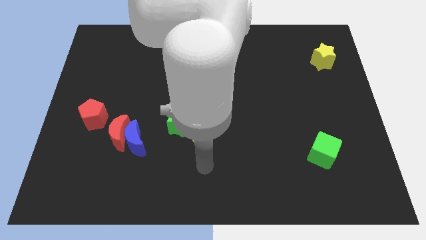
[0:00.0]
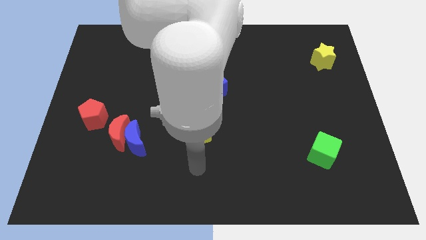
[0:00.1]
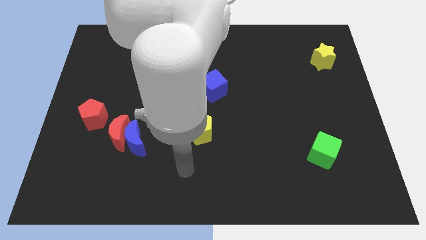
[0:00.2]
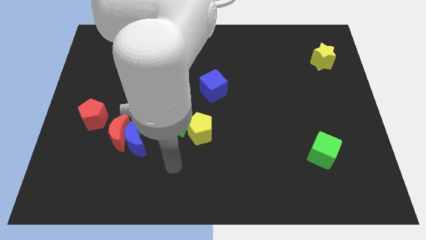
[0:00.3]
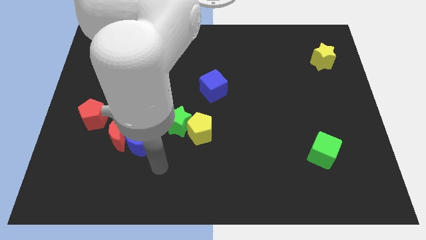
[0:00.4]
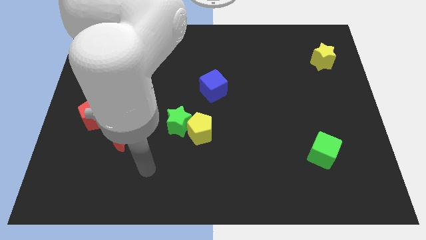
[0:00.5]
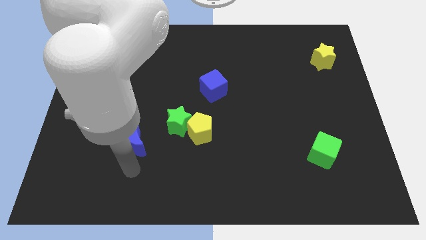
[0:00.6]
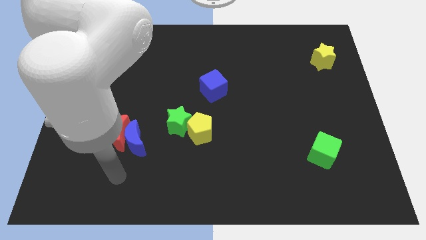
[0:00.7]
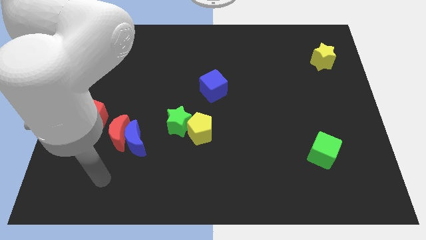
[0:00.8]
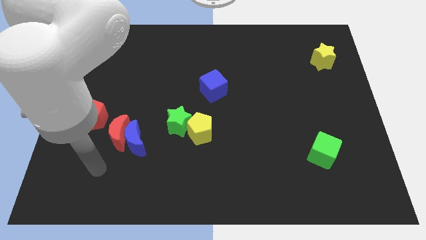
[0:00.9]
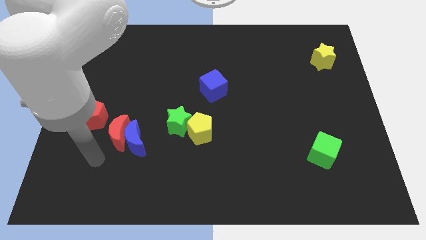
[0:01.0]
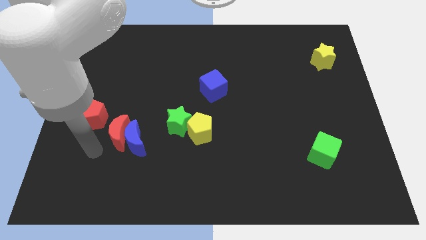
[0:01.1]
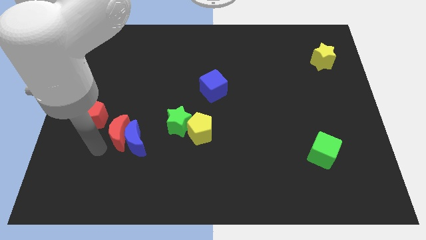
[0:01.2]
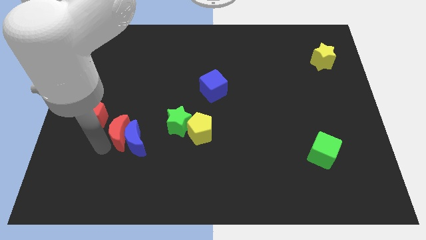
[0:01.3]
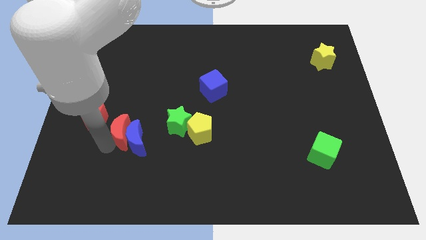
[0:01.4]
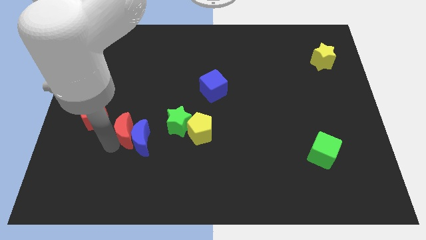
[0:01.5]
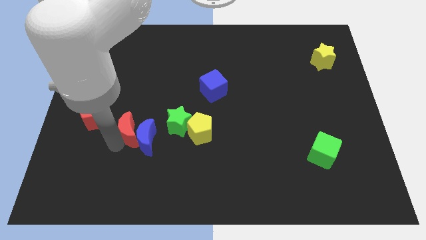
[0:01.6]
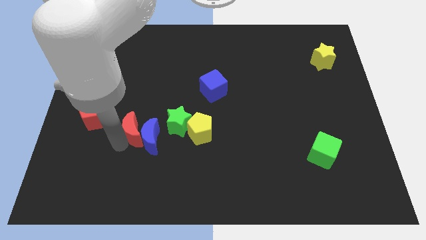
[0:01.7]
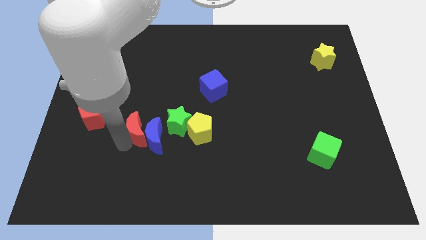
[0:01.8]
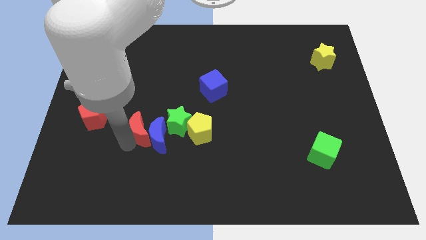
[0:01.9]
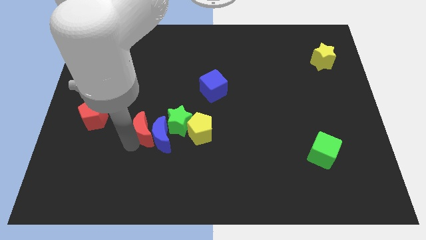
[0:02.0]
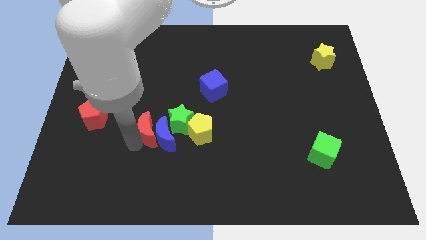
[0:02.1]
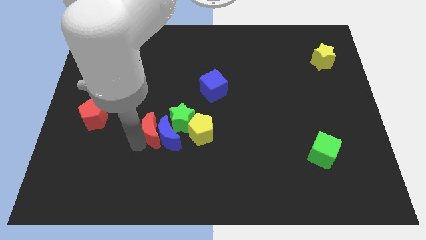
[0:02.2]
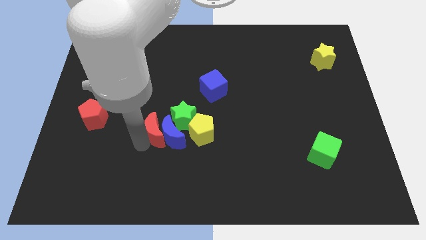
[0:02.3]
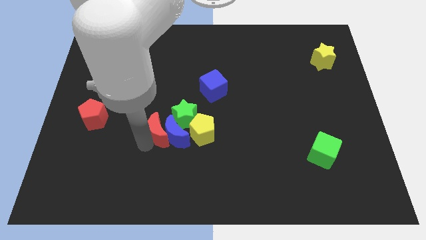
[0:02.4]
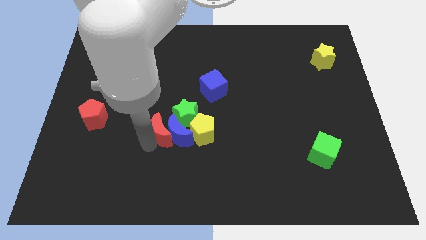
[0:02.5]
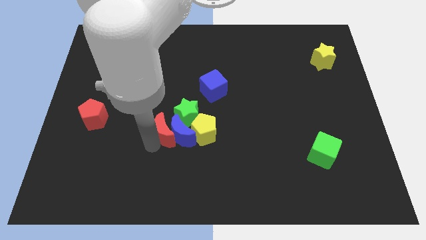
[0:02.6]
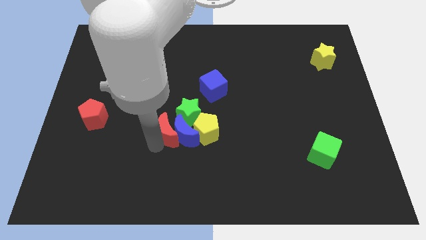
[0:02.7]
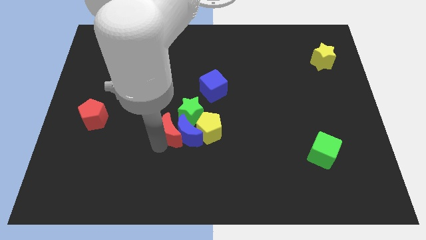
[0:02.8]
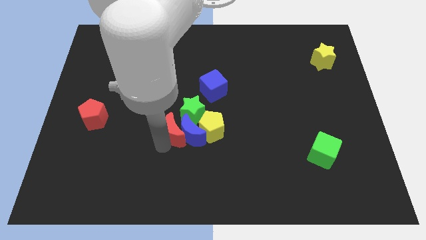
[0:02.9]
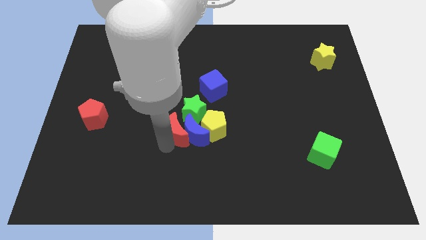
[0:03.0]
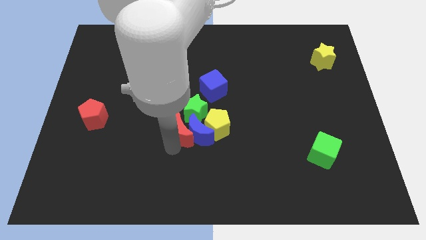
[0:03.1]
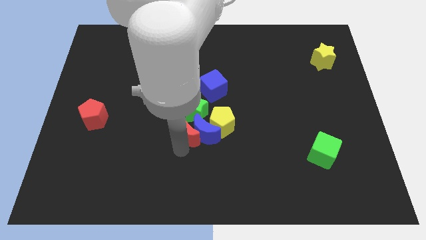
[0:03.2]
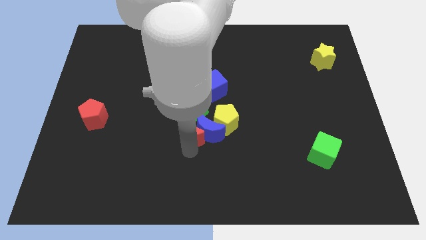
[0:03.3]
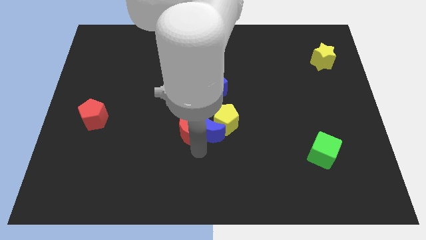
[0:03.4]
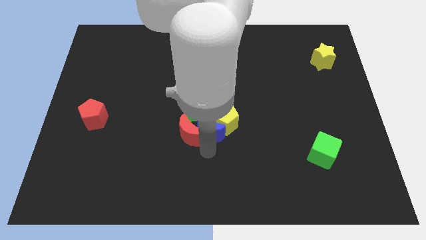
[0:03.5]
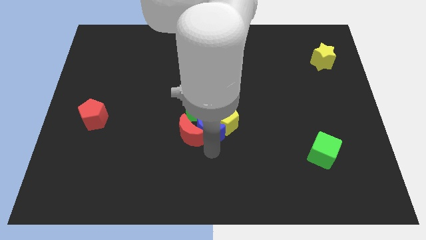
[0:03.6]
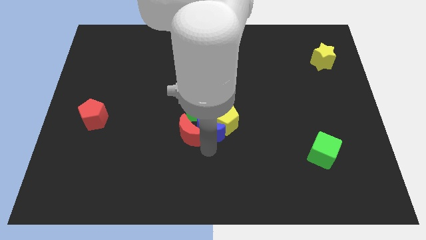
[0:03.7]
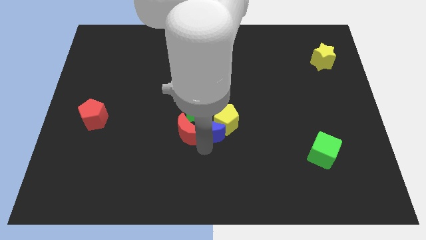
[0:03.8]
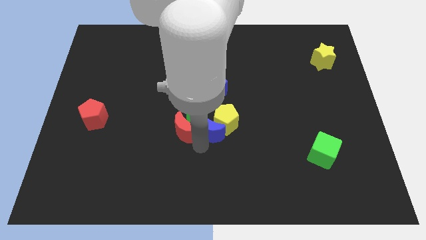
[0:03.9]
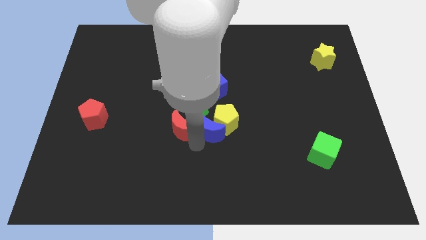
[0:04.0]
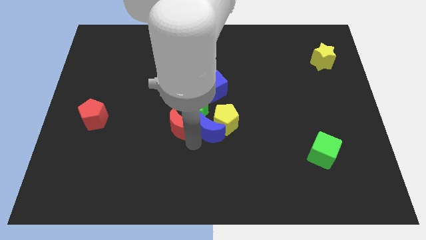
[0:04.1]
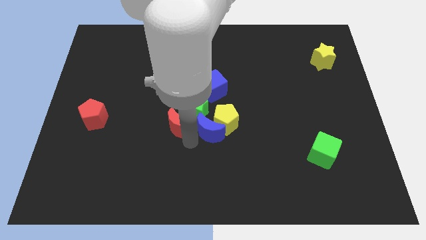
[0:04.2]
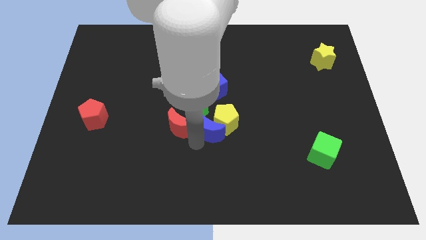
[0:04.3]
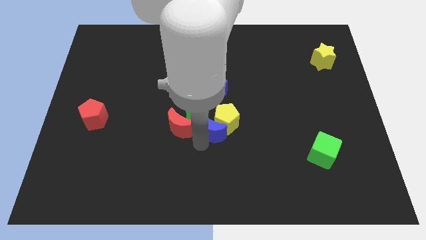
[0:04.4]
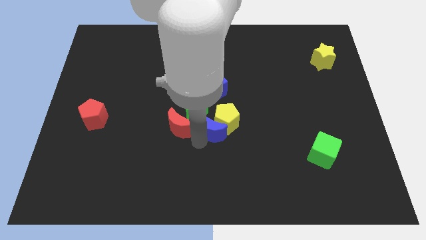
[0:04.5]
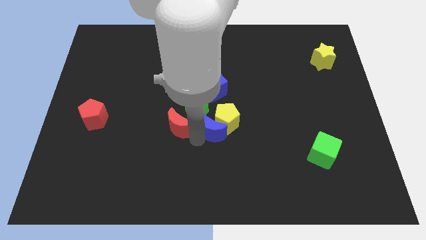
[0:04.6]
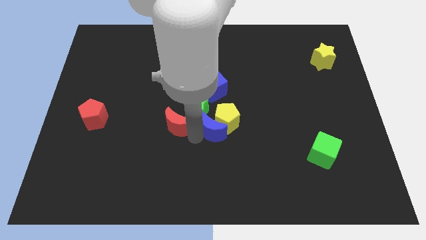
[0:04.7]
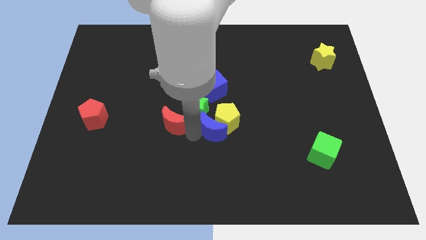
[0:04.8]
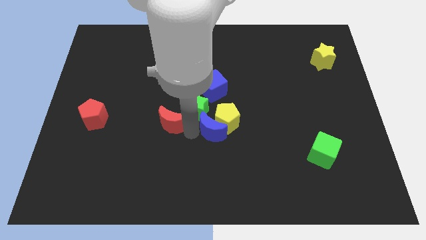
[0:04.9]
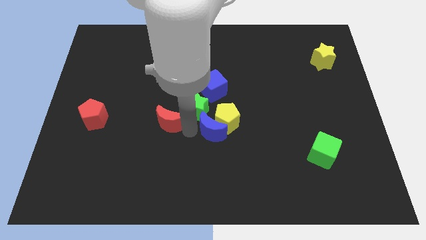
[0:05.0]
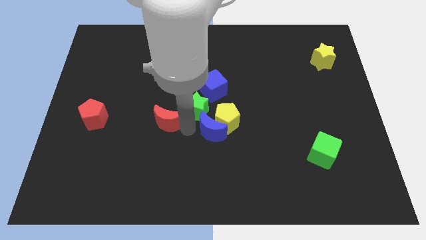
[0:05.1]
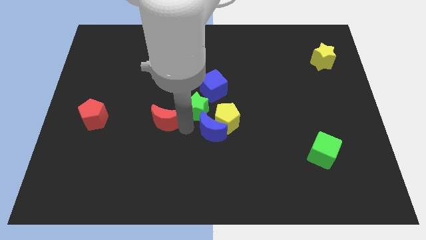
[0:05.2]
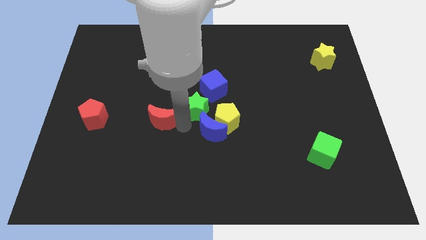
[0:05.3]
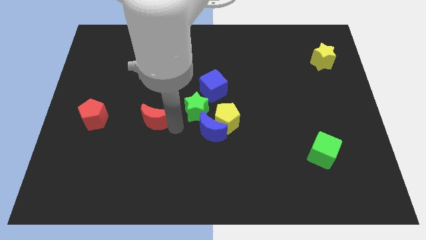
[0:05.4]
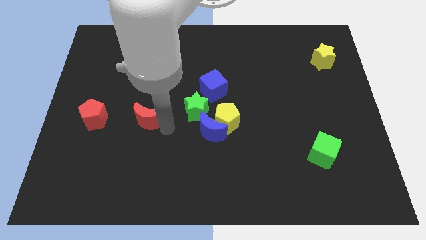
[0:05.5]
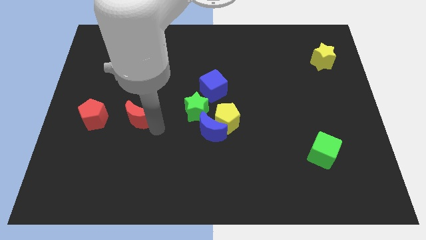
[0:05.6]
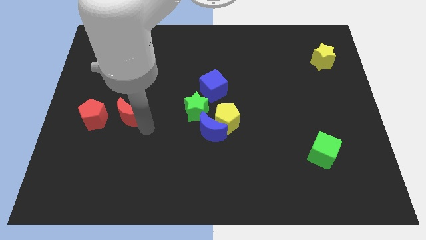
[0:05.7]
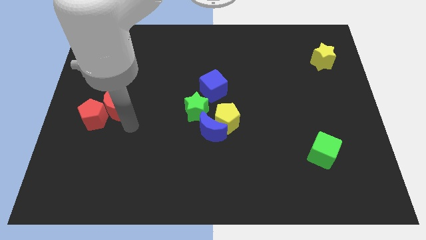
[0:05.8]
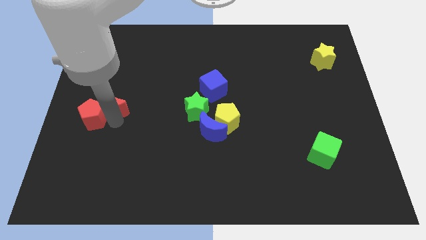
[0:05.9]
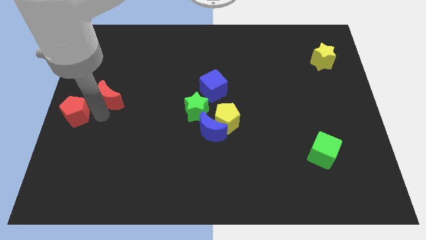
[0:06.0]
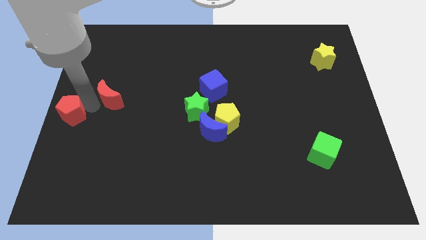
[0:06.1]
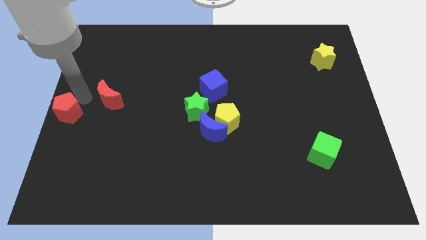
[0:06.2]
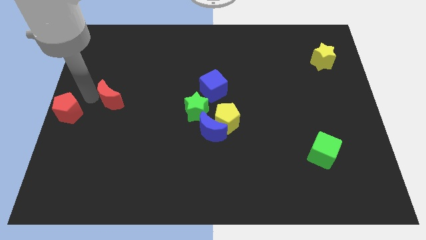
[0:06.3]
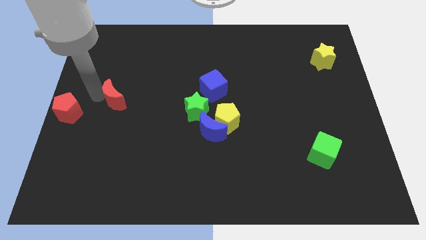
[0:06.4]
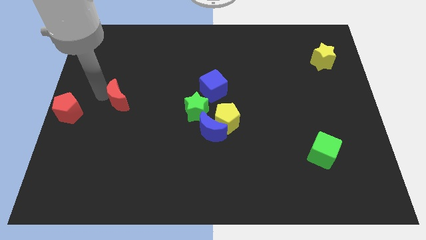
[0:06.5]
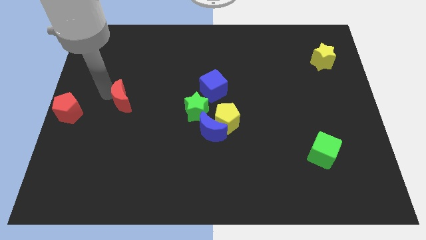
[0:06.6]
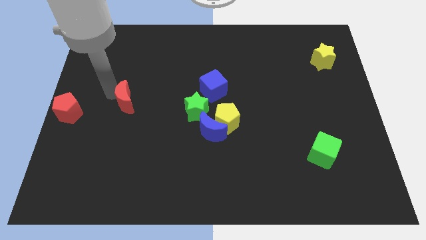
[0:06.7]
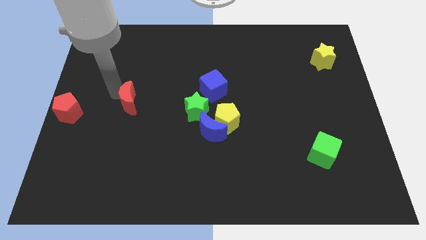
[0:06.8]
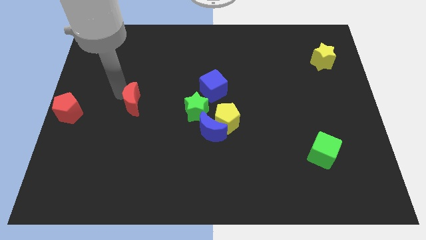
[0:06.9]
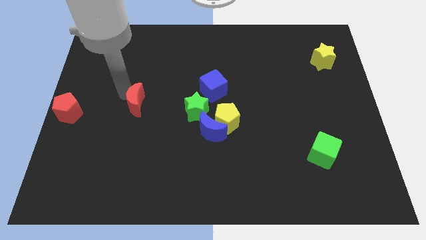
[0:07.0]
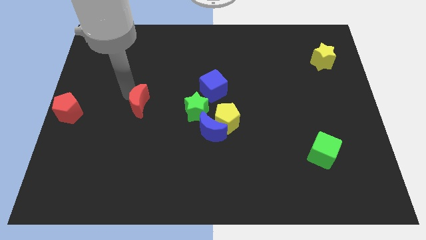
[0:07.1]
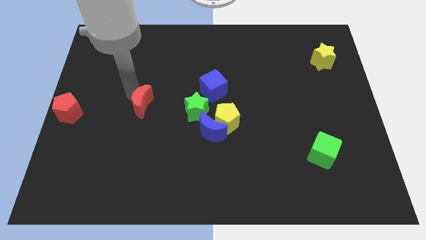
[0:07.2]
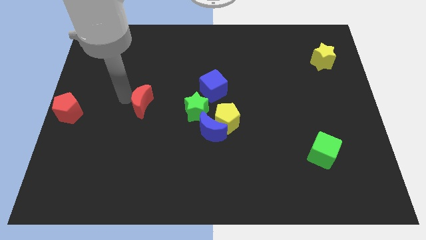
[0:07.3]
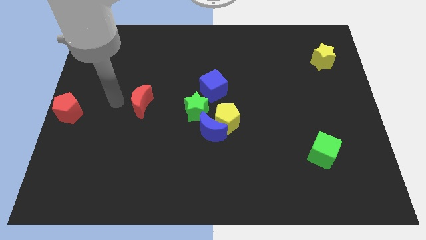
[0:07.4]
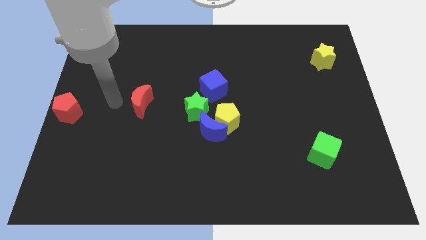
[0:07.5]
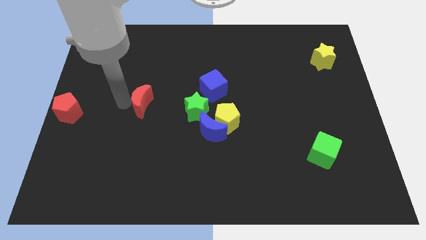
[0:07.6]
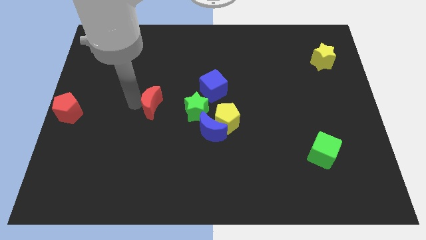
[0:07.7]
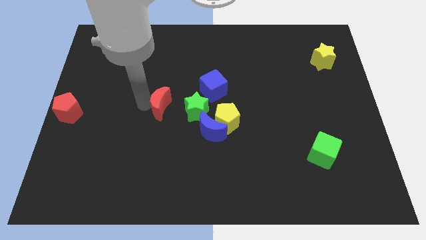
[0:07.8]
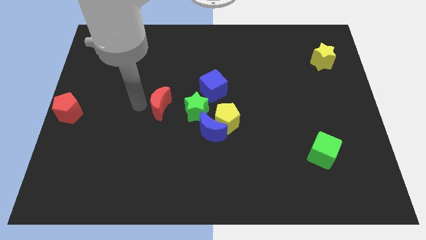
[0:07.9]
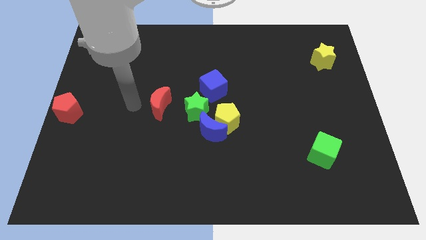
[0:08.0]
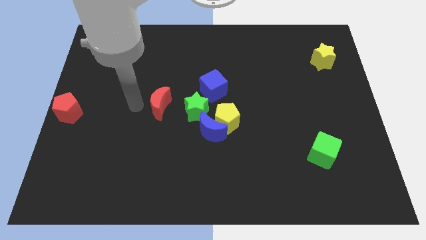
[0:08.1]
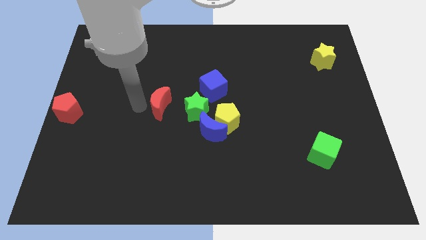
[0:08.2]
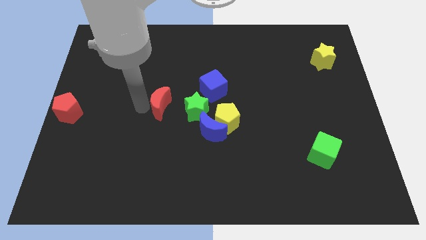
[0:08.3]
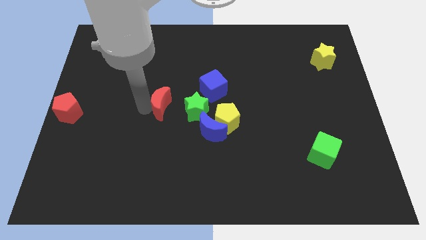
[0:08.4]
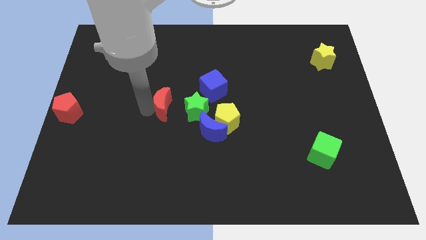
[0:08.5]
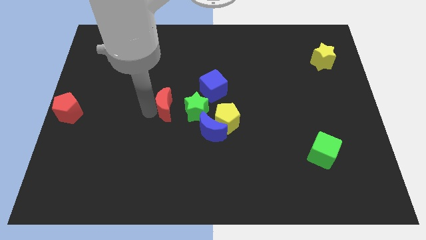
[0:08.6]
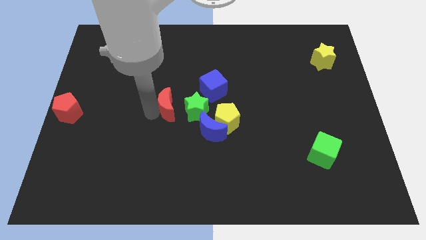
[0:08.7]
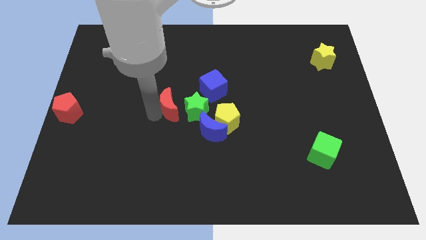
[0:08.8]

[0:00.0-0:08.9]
slide the red moon to the bottom left of the blue cube
